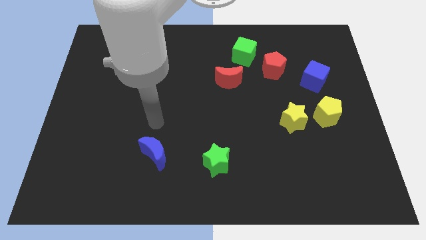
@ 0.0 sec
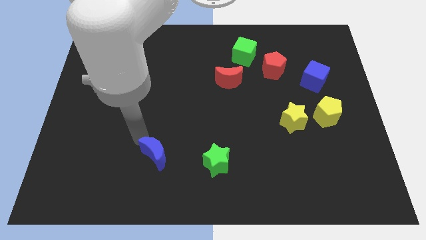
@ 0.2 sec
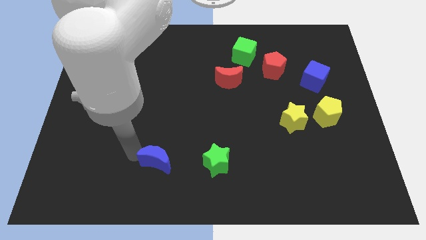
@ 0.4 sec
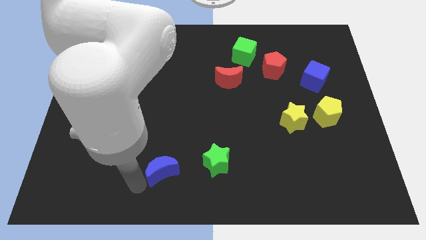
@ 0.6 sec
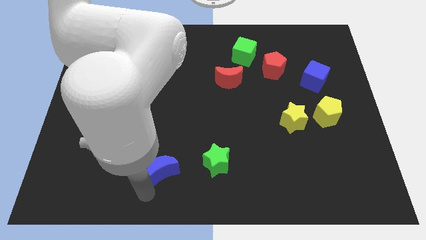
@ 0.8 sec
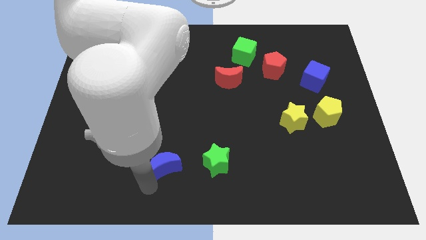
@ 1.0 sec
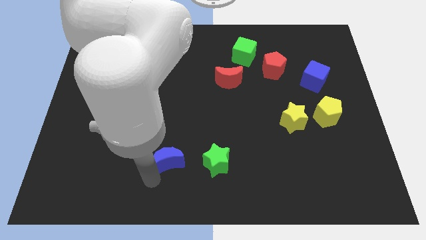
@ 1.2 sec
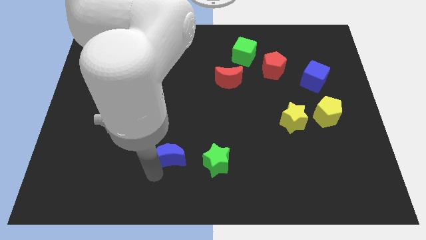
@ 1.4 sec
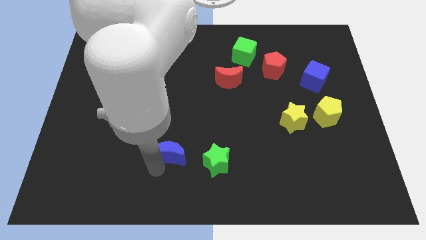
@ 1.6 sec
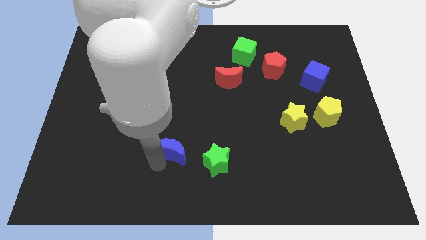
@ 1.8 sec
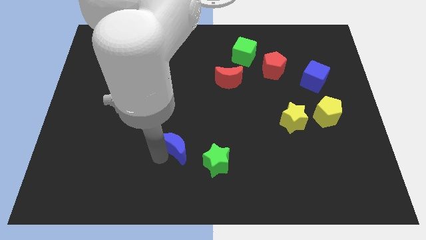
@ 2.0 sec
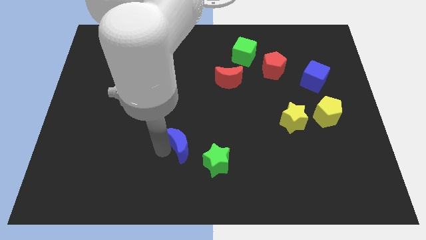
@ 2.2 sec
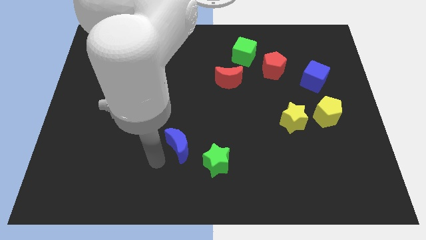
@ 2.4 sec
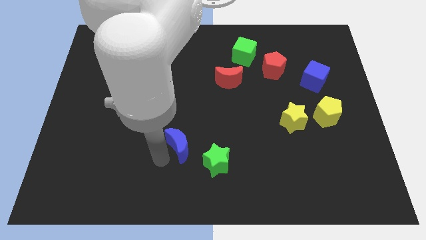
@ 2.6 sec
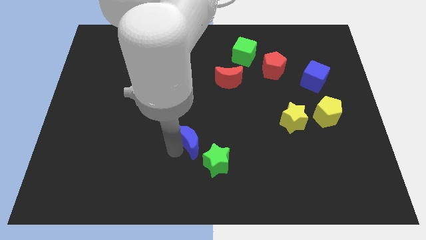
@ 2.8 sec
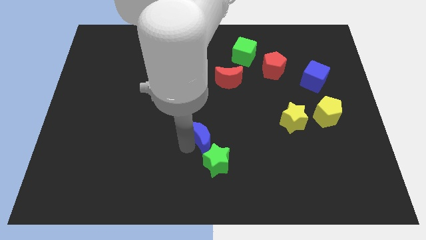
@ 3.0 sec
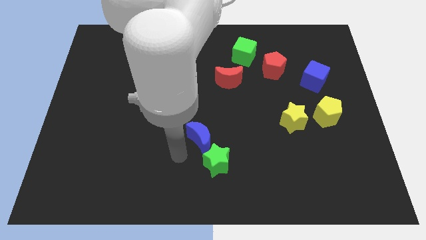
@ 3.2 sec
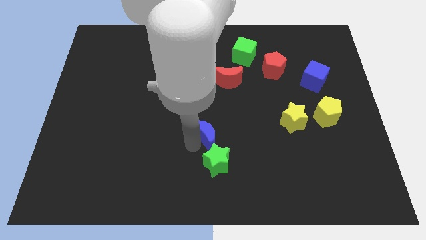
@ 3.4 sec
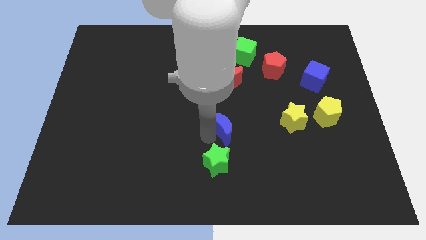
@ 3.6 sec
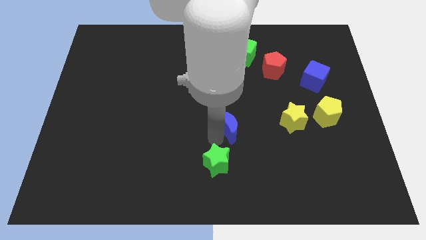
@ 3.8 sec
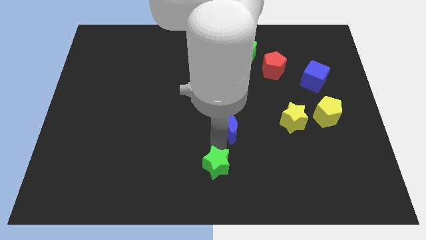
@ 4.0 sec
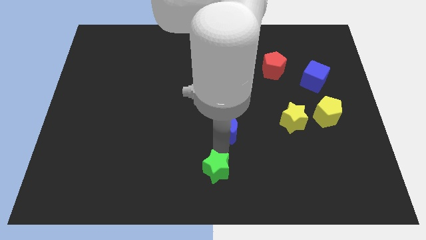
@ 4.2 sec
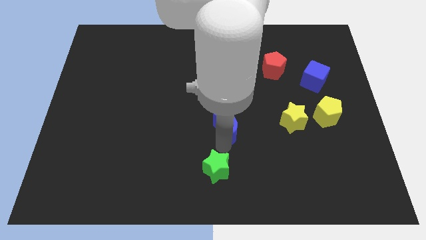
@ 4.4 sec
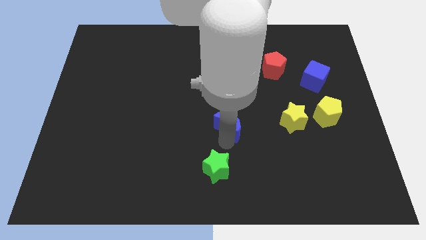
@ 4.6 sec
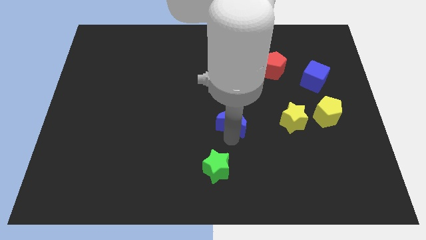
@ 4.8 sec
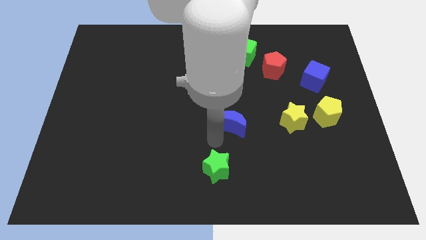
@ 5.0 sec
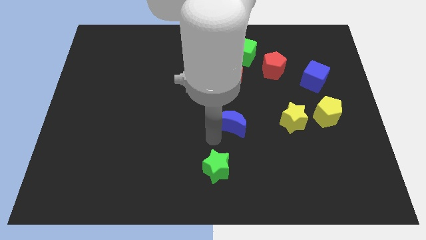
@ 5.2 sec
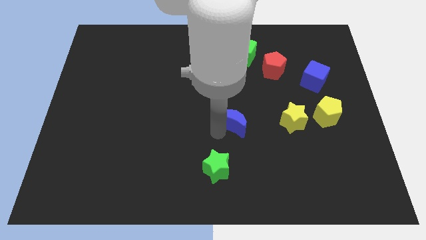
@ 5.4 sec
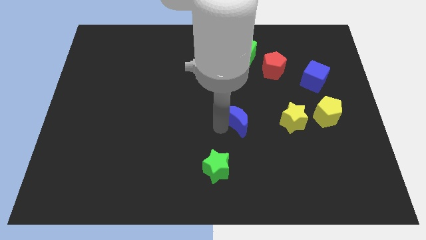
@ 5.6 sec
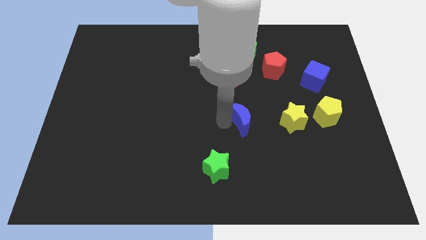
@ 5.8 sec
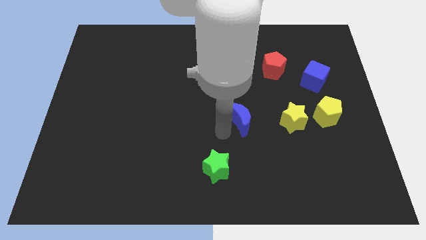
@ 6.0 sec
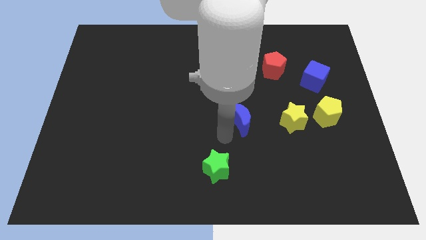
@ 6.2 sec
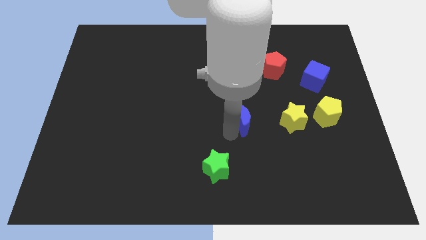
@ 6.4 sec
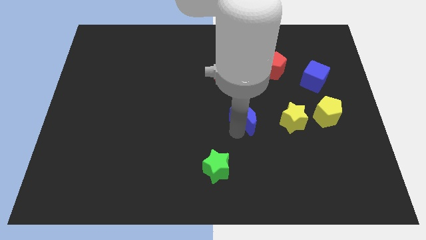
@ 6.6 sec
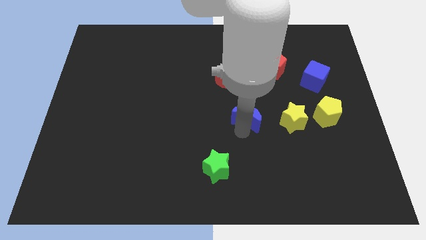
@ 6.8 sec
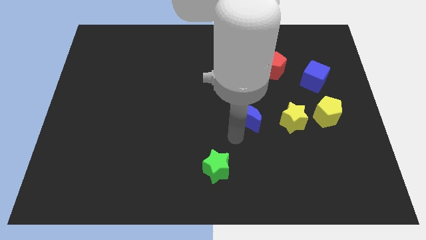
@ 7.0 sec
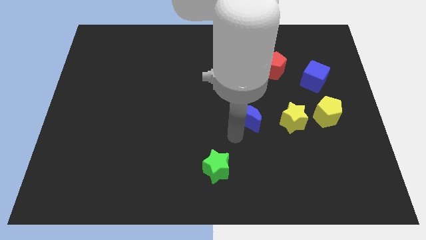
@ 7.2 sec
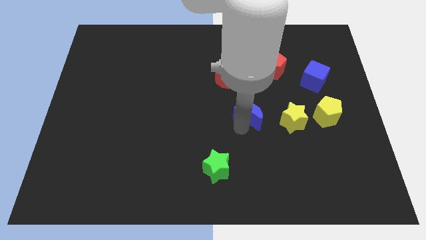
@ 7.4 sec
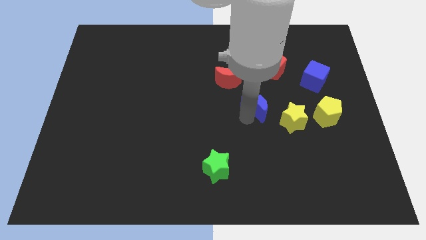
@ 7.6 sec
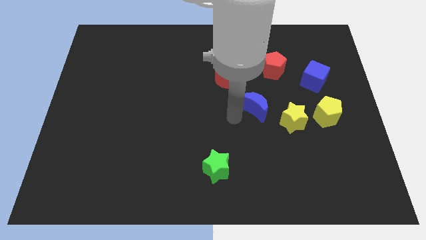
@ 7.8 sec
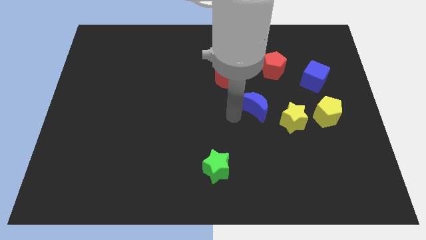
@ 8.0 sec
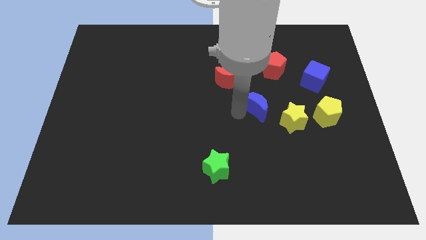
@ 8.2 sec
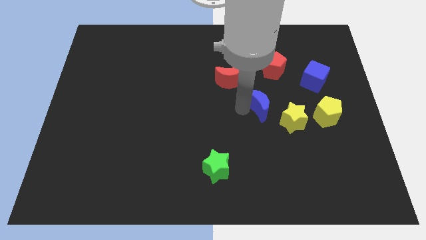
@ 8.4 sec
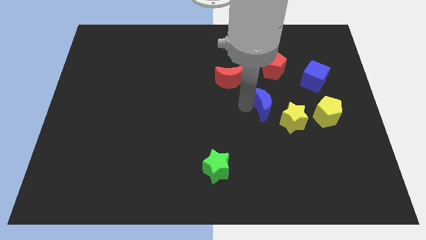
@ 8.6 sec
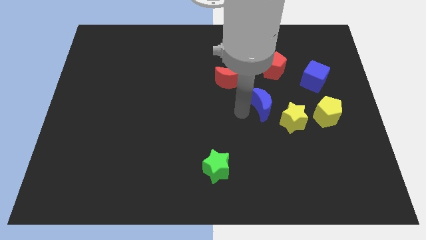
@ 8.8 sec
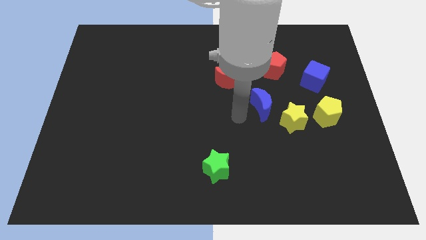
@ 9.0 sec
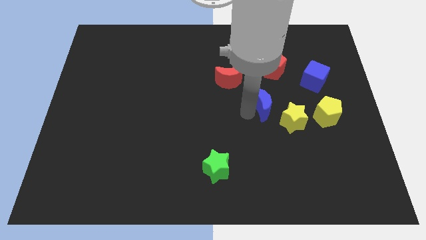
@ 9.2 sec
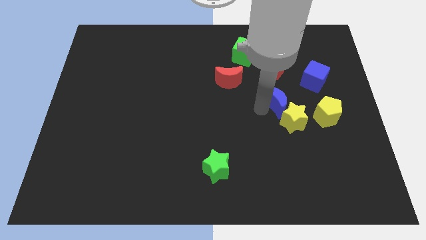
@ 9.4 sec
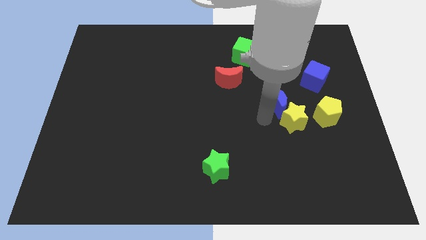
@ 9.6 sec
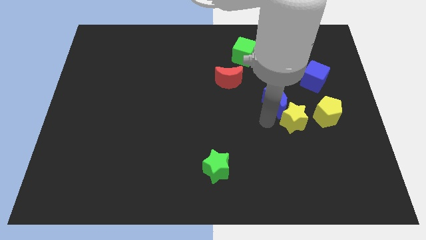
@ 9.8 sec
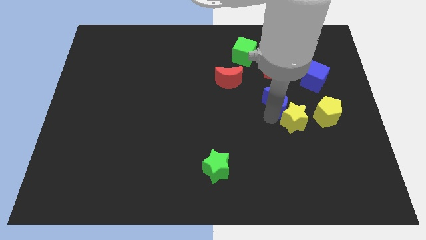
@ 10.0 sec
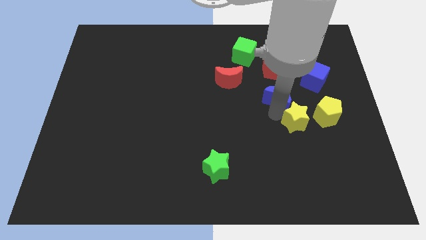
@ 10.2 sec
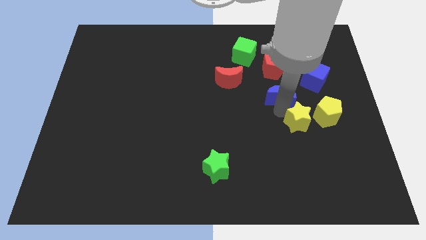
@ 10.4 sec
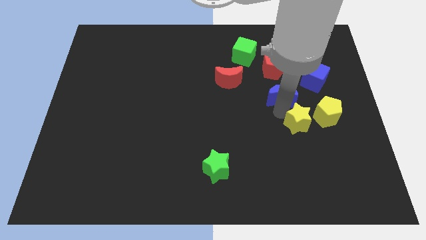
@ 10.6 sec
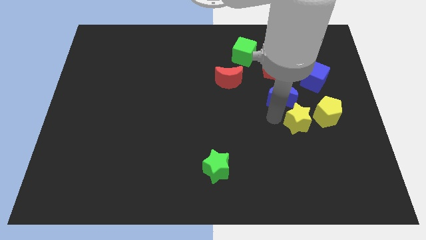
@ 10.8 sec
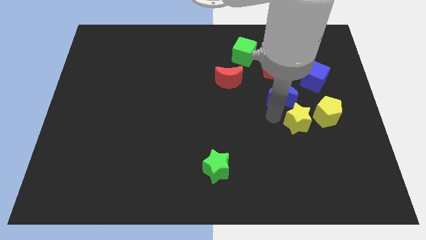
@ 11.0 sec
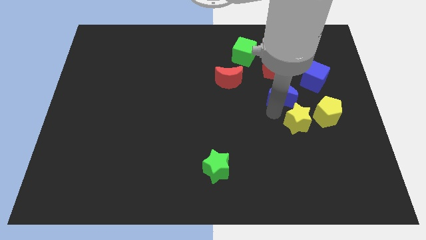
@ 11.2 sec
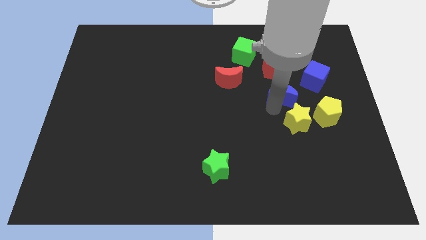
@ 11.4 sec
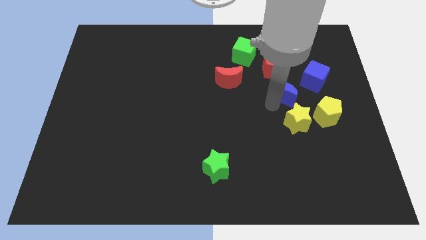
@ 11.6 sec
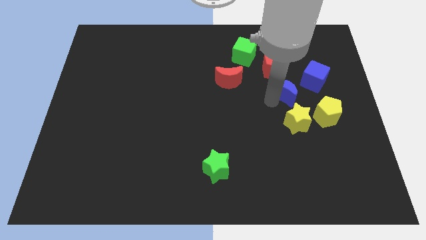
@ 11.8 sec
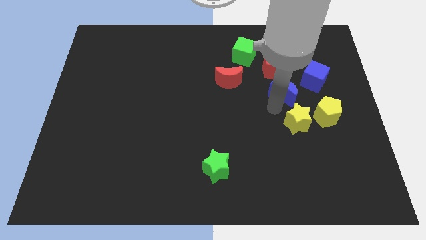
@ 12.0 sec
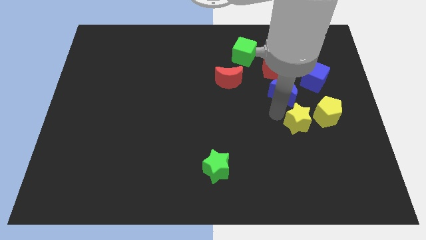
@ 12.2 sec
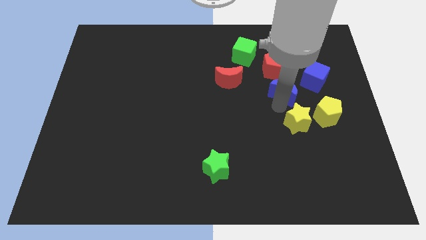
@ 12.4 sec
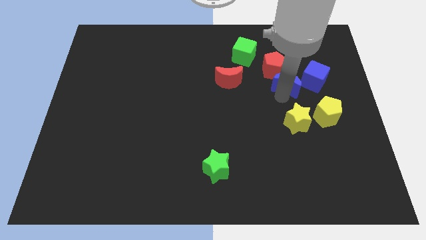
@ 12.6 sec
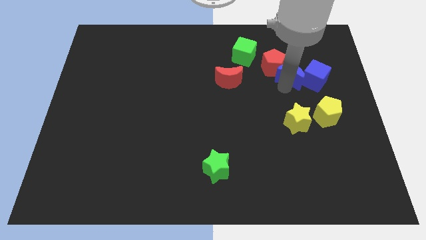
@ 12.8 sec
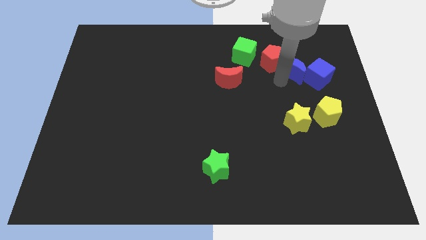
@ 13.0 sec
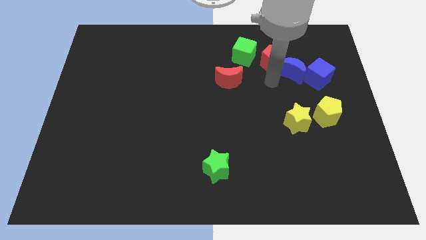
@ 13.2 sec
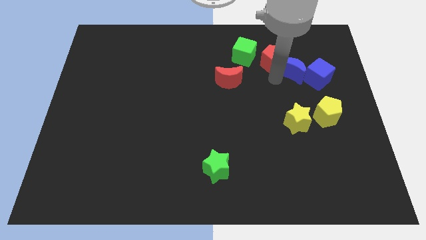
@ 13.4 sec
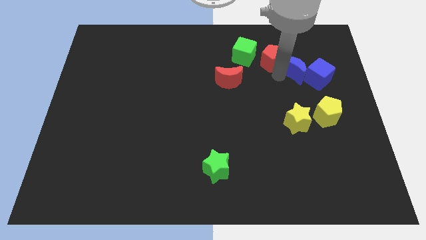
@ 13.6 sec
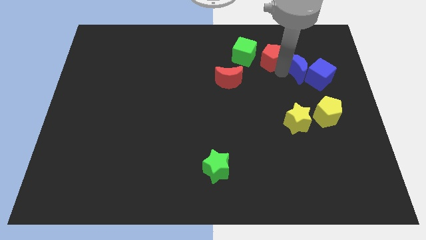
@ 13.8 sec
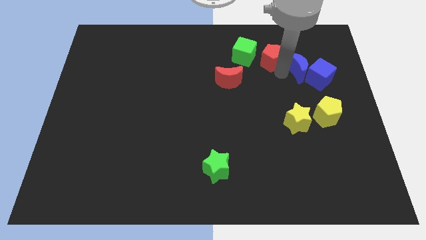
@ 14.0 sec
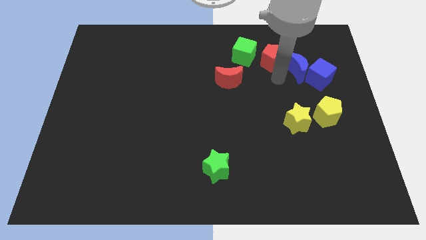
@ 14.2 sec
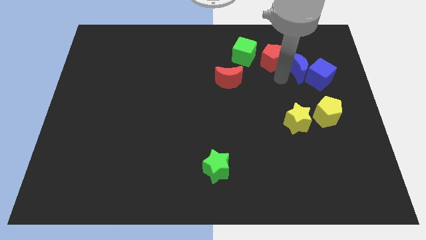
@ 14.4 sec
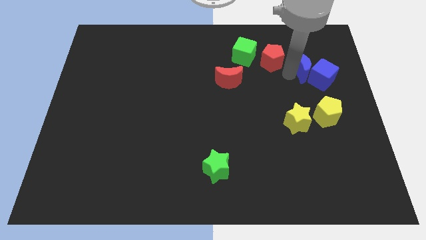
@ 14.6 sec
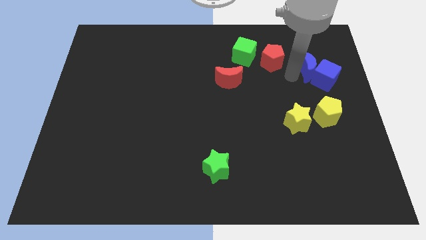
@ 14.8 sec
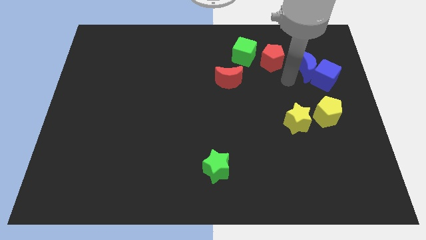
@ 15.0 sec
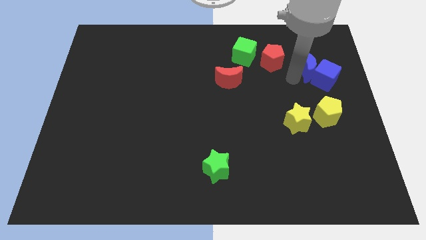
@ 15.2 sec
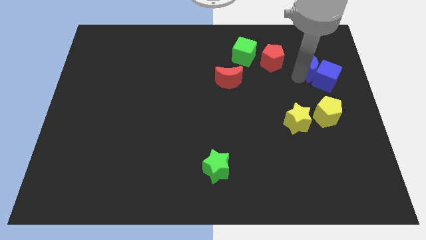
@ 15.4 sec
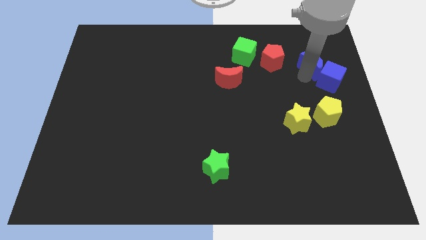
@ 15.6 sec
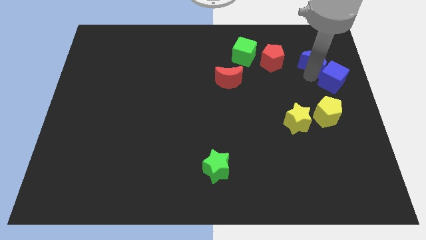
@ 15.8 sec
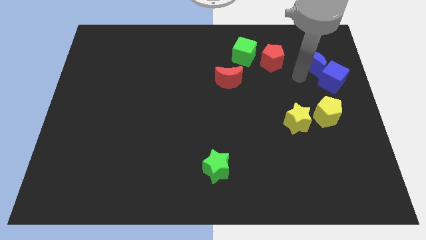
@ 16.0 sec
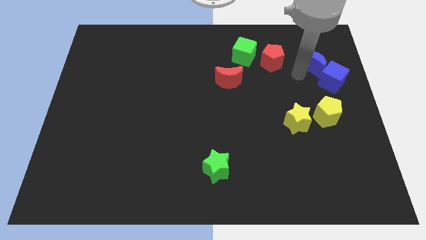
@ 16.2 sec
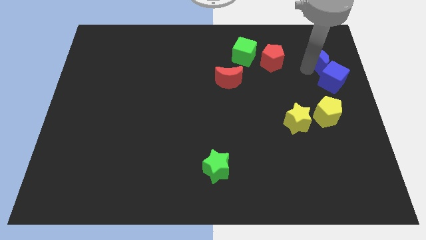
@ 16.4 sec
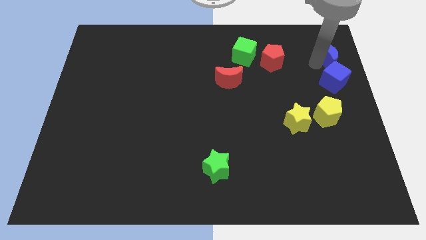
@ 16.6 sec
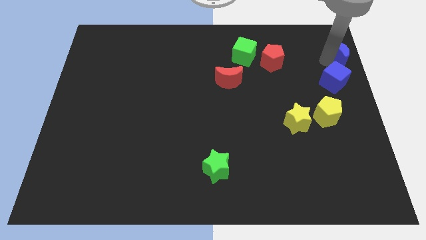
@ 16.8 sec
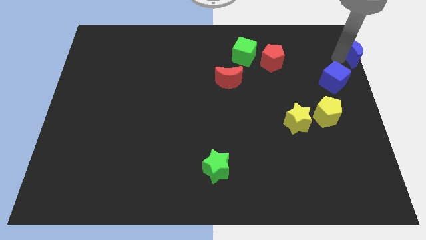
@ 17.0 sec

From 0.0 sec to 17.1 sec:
move the blue moon to the top right
